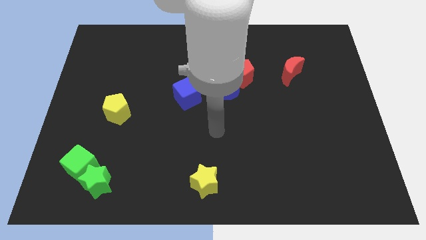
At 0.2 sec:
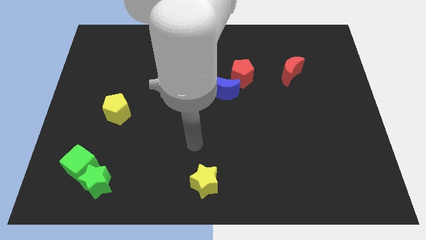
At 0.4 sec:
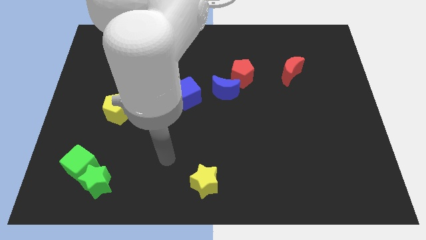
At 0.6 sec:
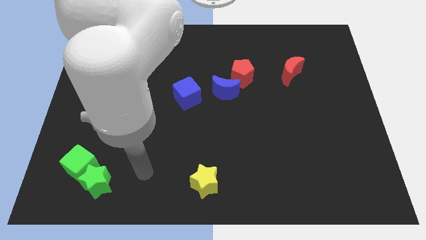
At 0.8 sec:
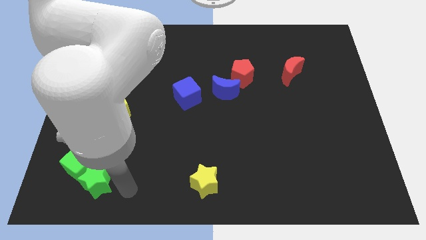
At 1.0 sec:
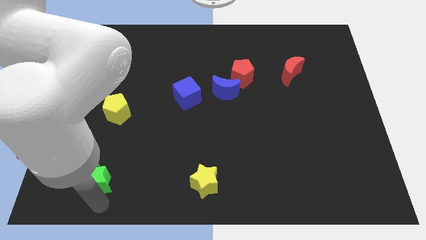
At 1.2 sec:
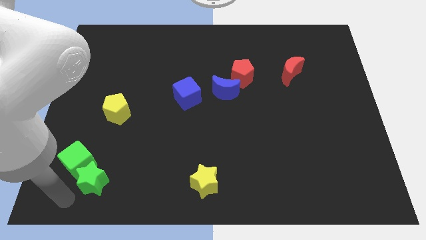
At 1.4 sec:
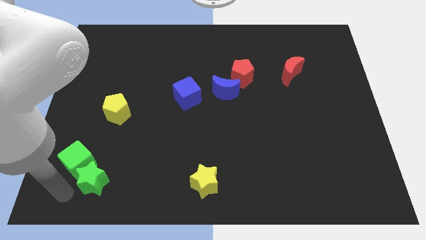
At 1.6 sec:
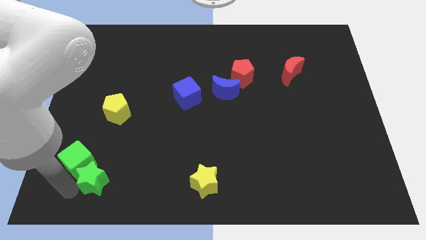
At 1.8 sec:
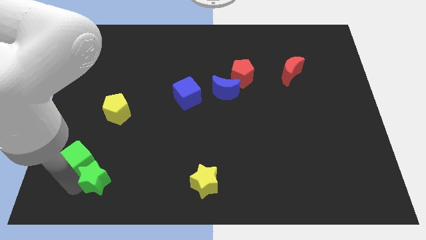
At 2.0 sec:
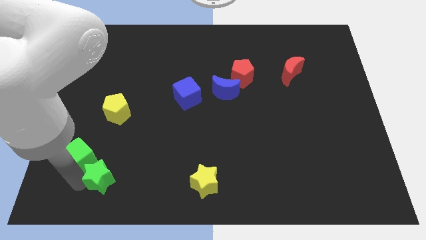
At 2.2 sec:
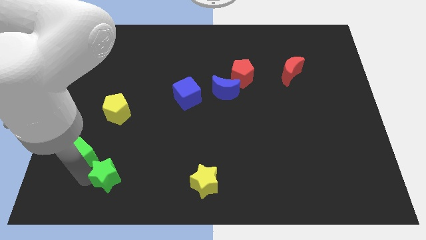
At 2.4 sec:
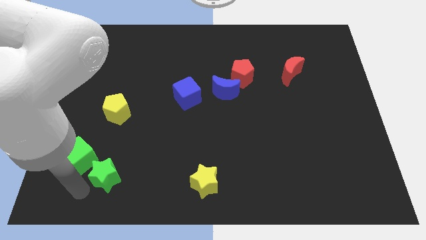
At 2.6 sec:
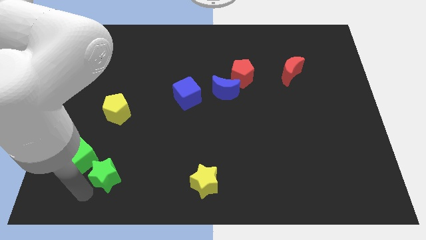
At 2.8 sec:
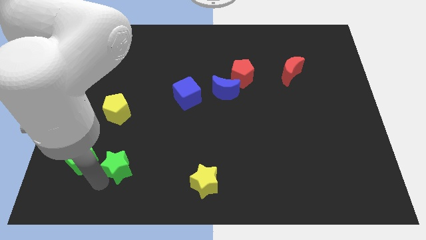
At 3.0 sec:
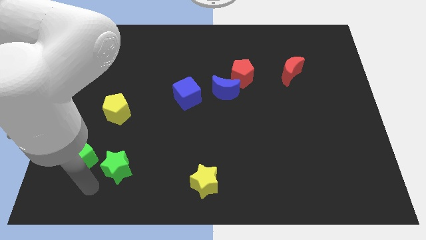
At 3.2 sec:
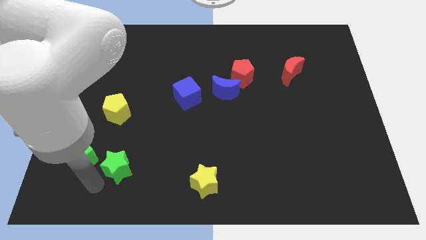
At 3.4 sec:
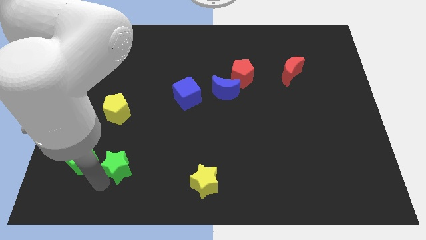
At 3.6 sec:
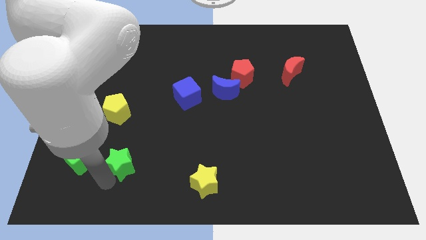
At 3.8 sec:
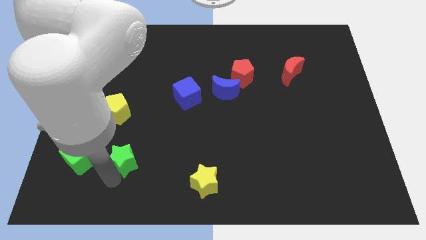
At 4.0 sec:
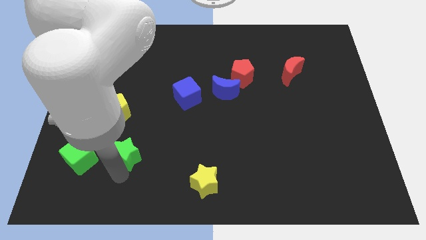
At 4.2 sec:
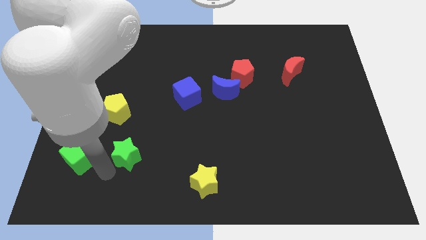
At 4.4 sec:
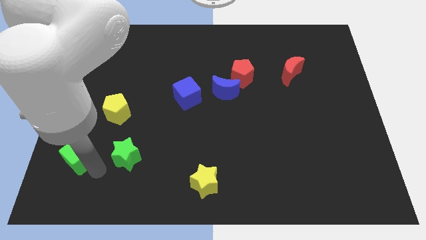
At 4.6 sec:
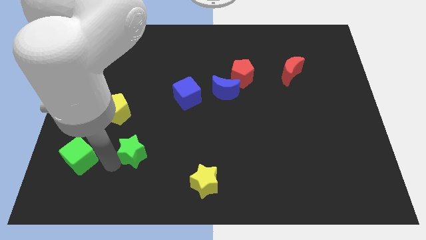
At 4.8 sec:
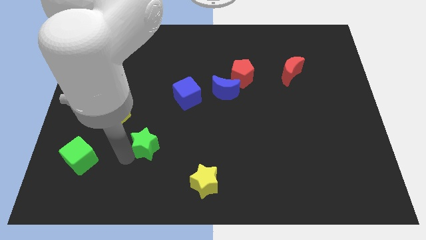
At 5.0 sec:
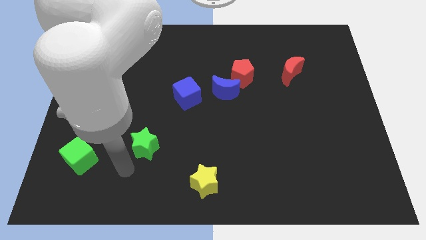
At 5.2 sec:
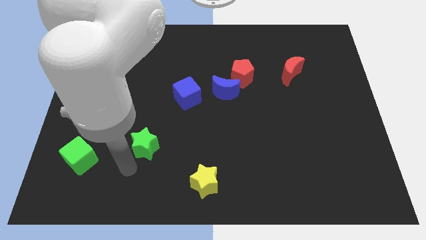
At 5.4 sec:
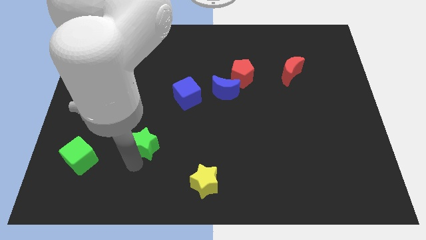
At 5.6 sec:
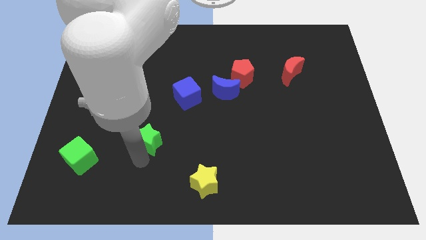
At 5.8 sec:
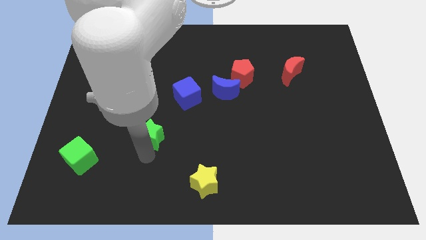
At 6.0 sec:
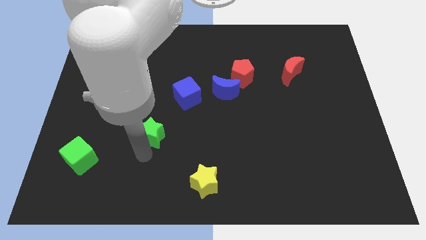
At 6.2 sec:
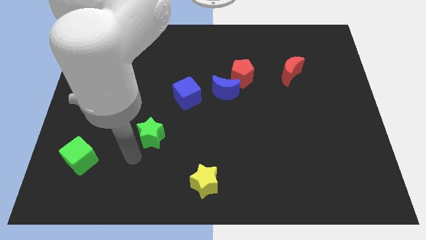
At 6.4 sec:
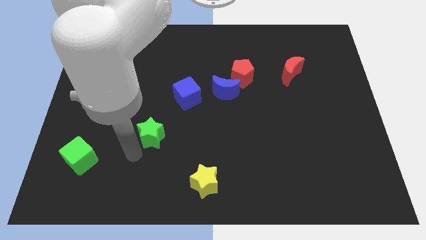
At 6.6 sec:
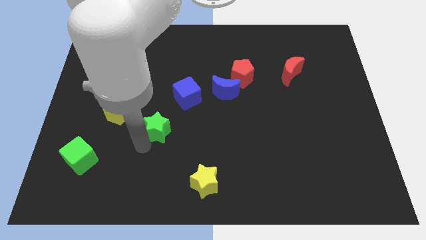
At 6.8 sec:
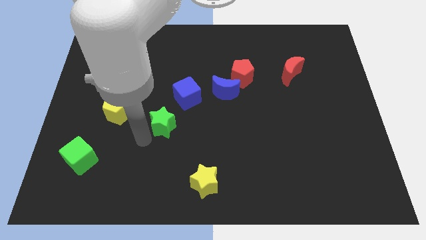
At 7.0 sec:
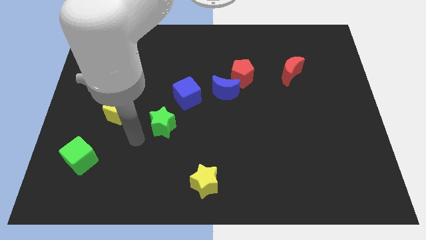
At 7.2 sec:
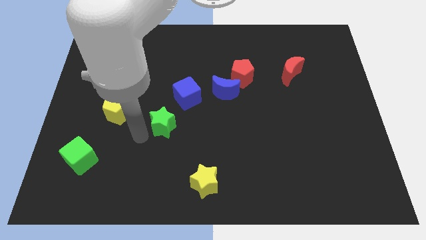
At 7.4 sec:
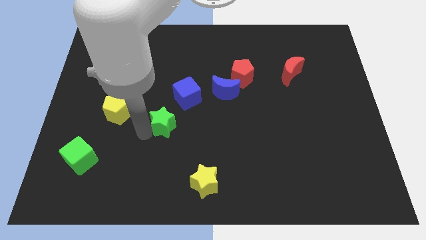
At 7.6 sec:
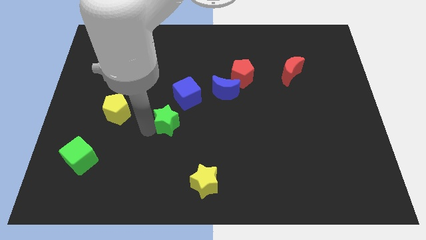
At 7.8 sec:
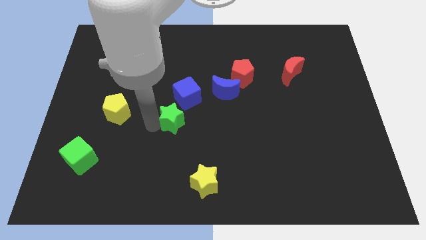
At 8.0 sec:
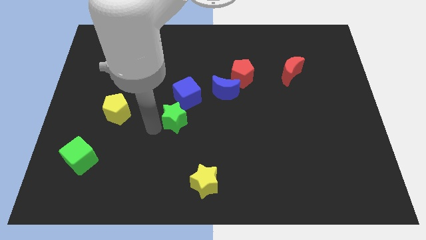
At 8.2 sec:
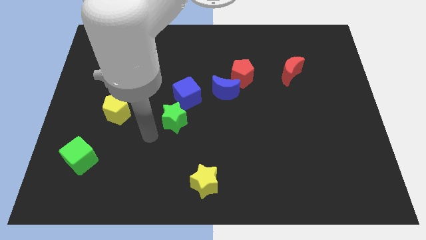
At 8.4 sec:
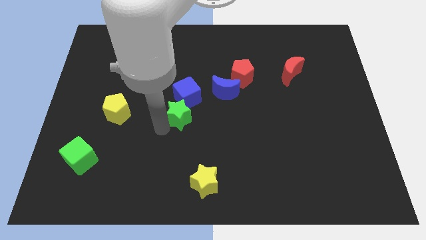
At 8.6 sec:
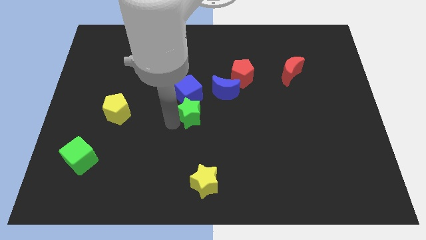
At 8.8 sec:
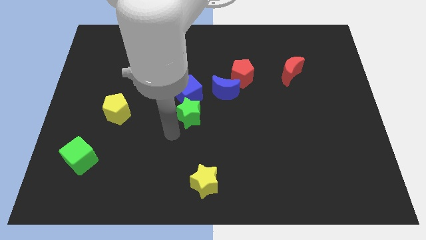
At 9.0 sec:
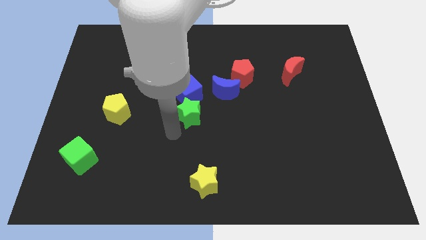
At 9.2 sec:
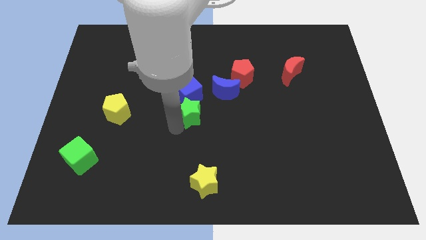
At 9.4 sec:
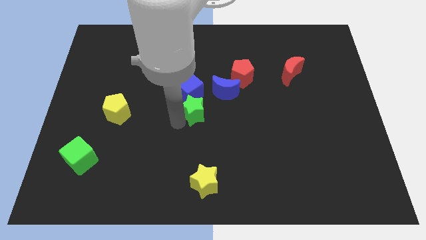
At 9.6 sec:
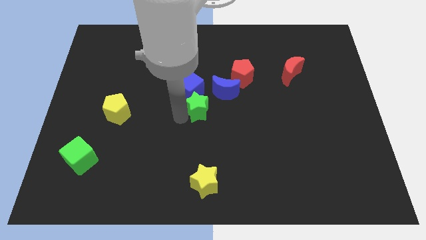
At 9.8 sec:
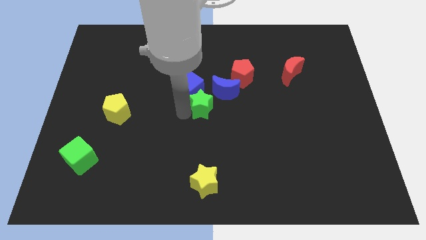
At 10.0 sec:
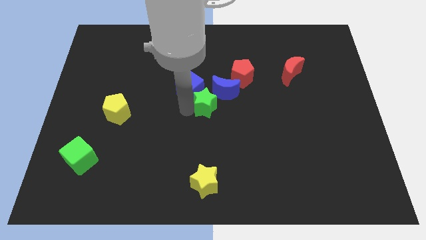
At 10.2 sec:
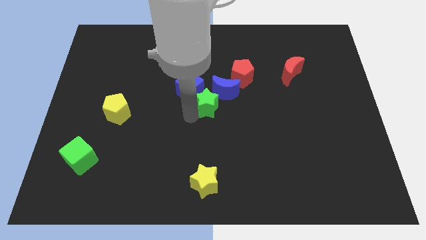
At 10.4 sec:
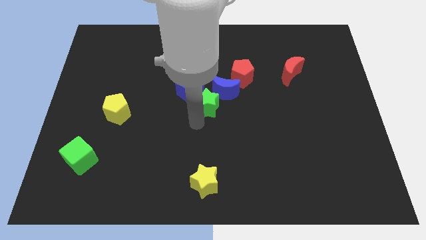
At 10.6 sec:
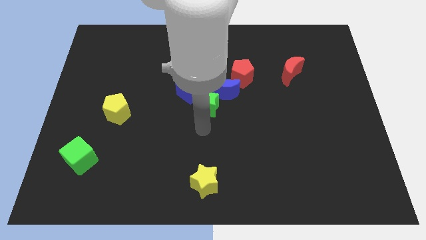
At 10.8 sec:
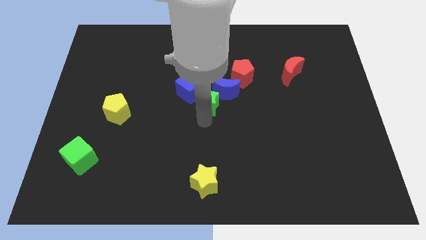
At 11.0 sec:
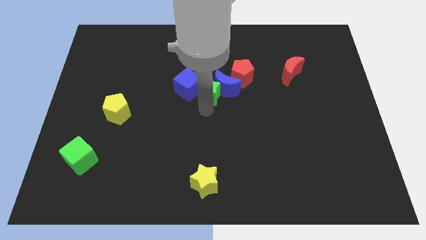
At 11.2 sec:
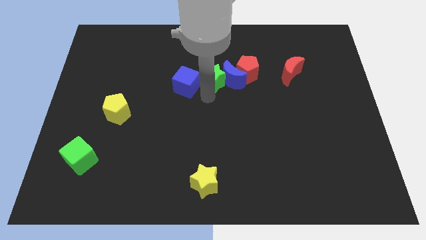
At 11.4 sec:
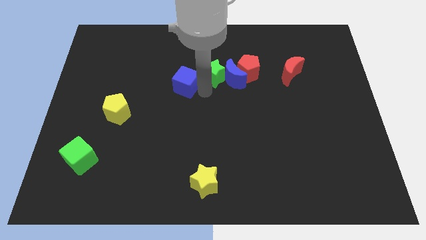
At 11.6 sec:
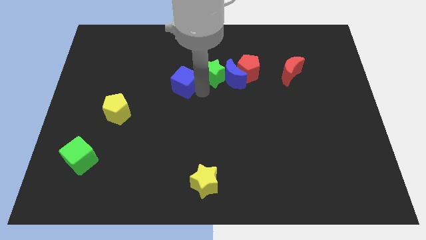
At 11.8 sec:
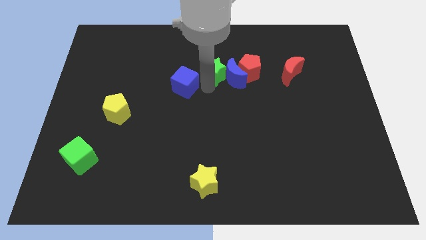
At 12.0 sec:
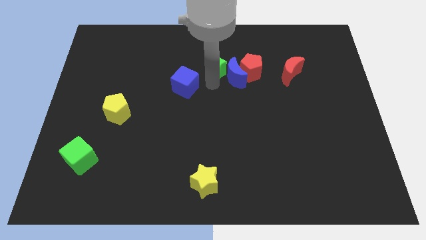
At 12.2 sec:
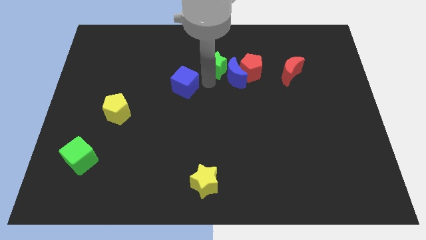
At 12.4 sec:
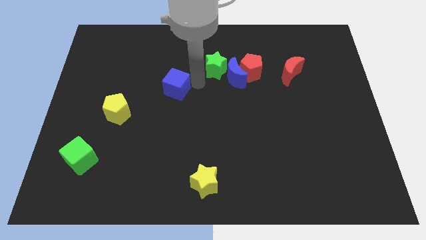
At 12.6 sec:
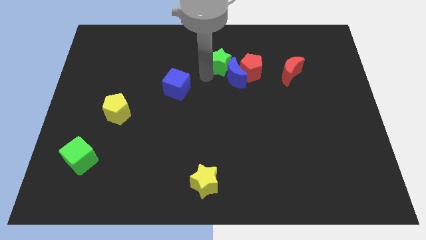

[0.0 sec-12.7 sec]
put the green star to the top left side of the red pentagon
